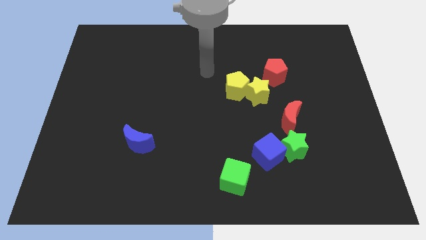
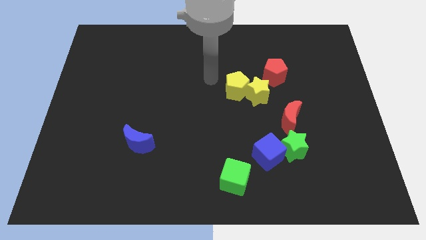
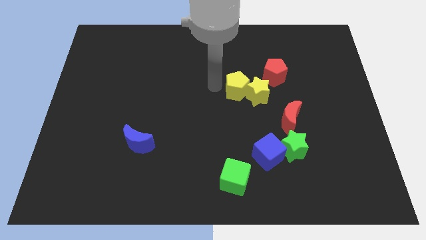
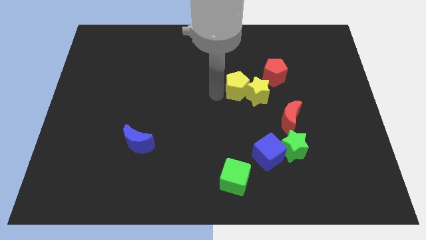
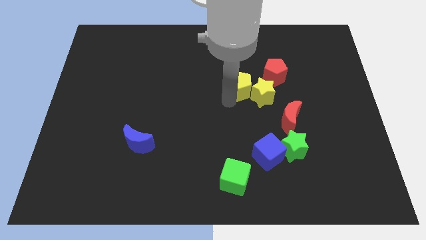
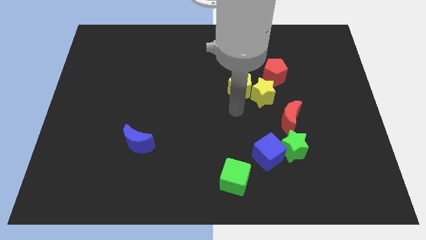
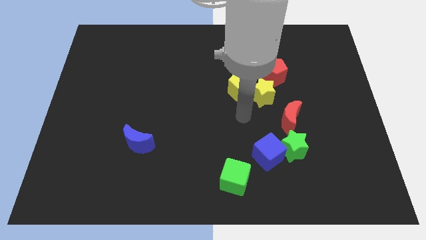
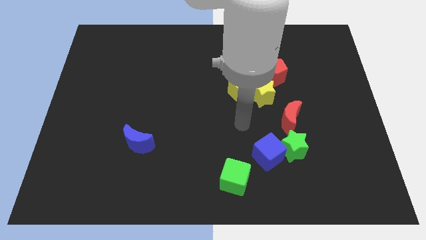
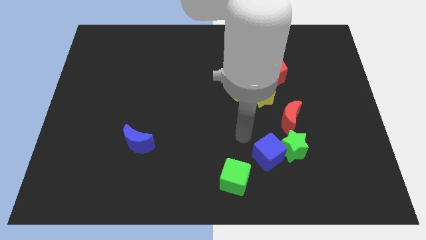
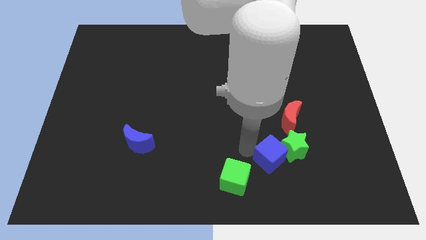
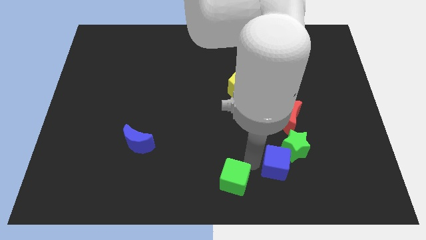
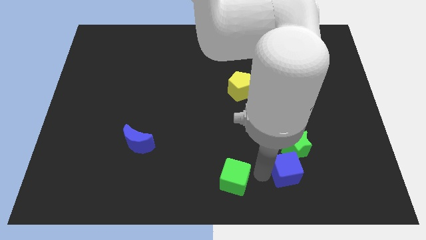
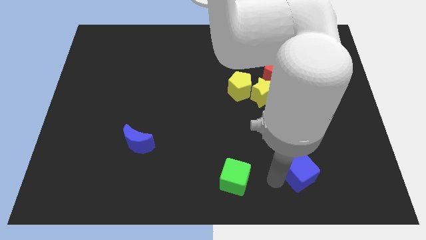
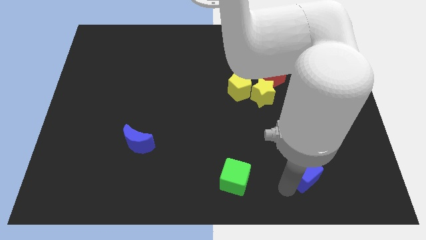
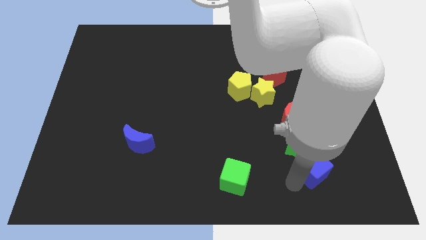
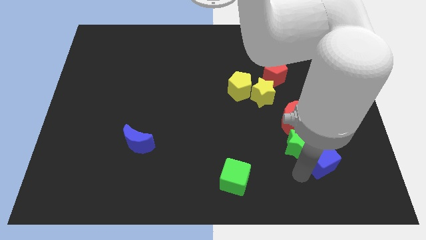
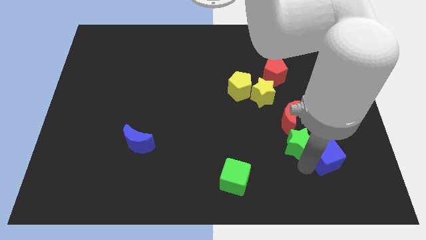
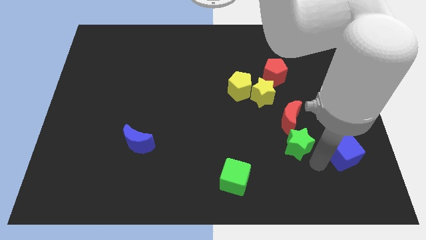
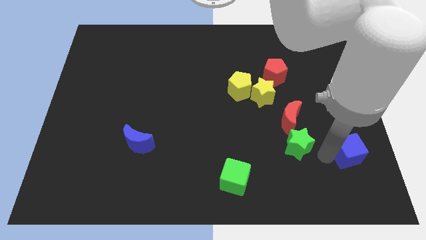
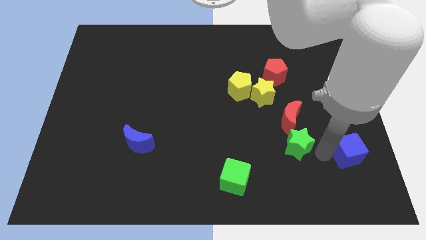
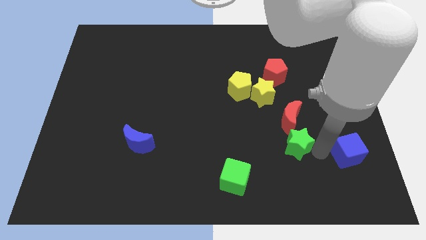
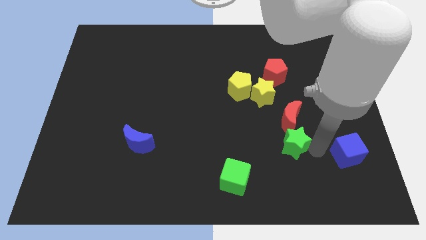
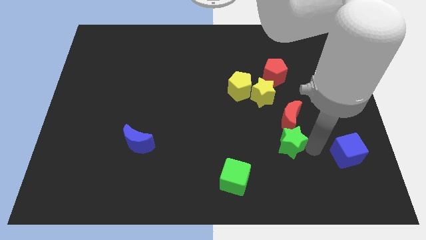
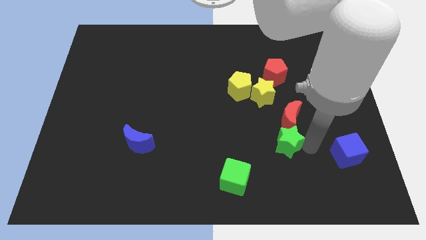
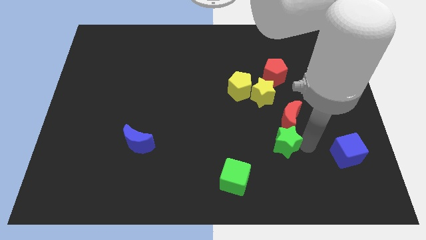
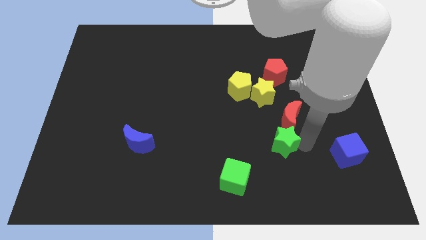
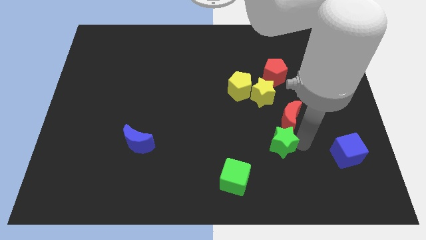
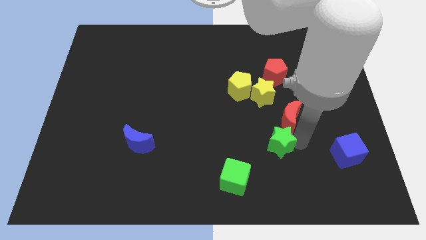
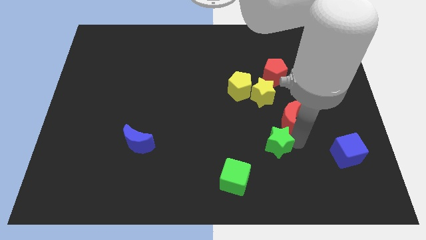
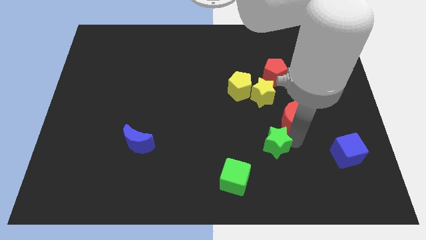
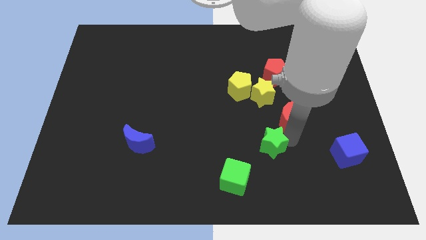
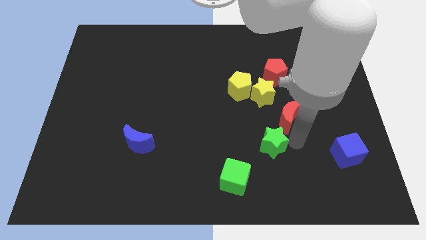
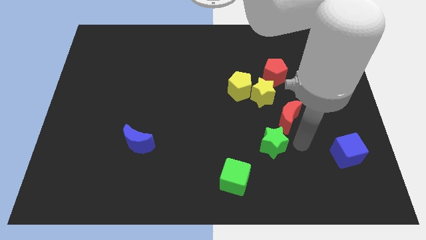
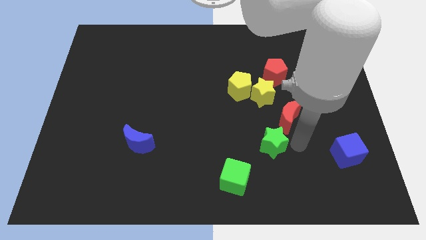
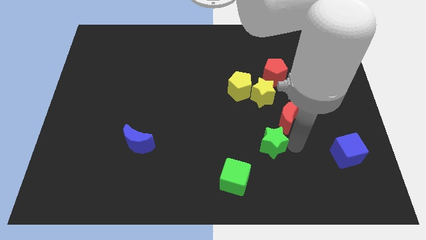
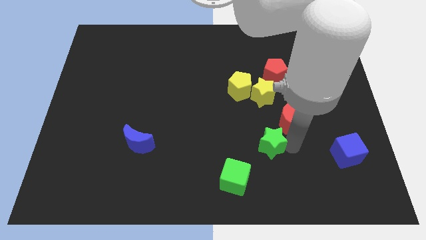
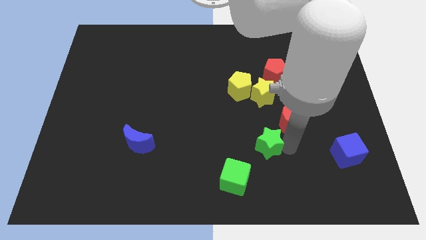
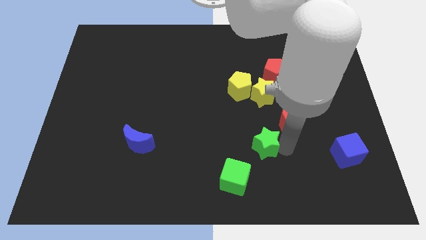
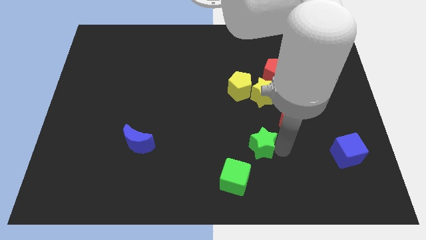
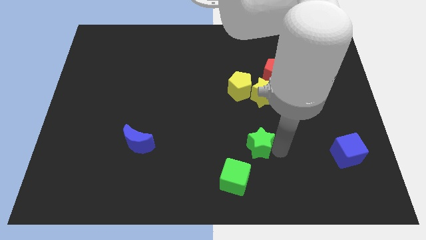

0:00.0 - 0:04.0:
slide the green star somewhat to the left

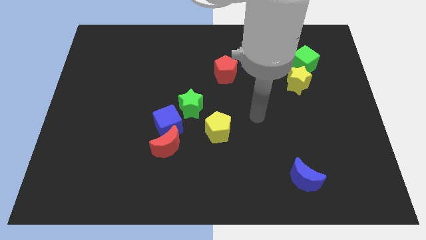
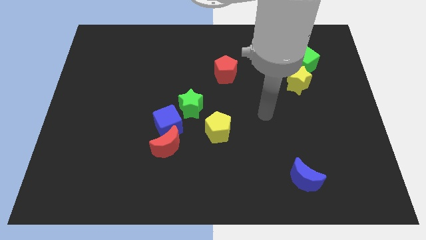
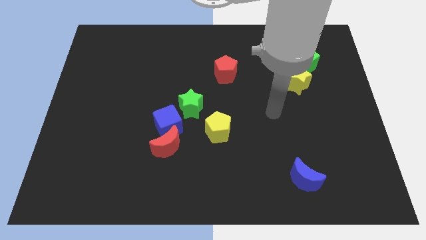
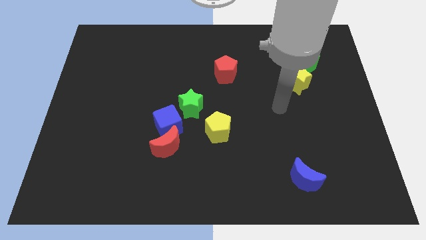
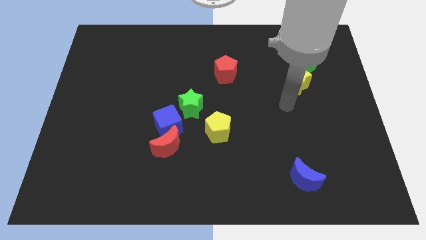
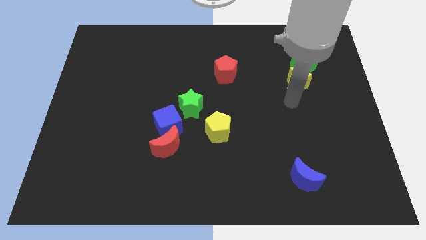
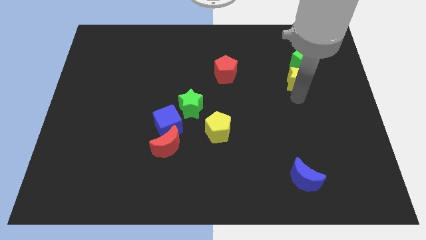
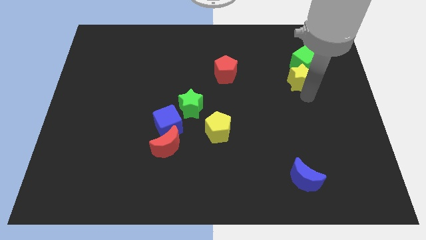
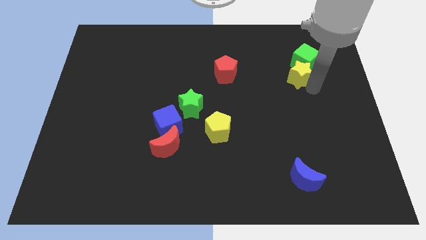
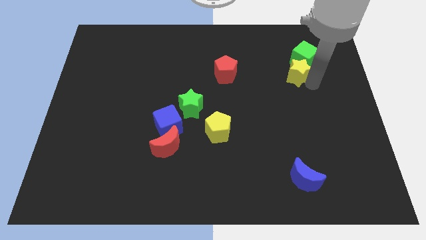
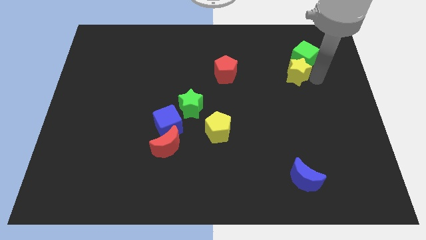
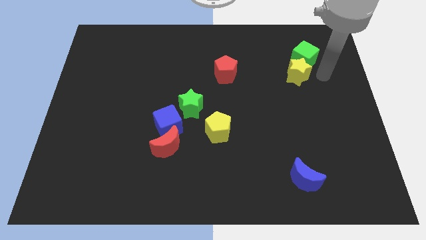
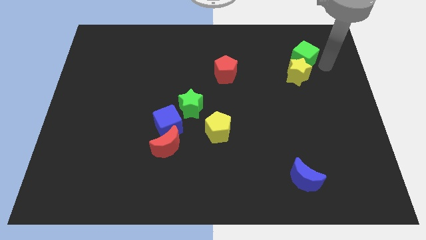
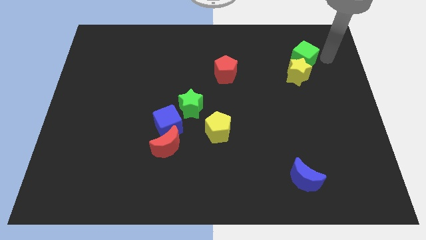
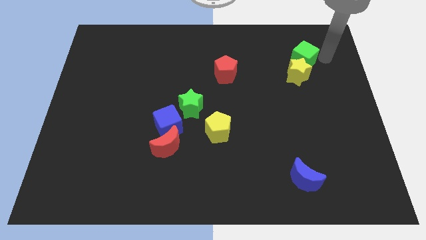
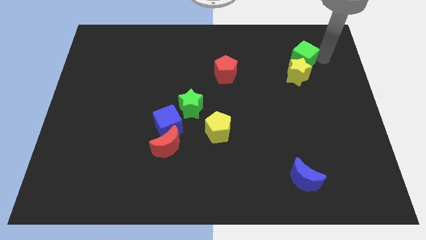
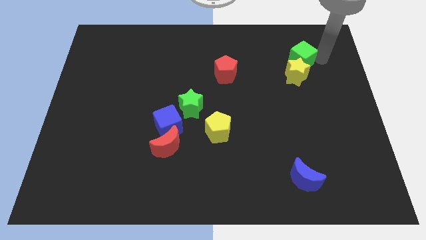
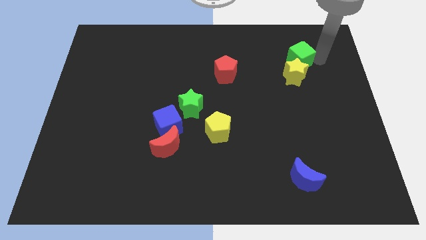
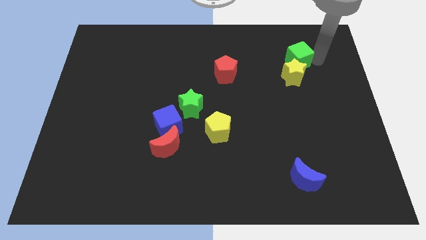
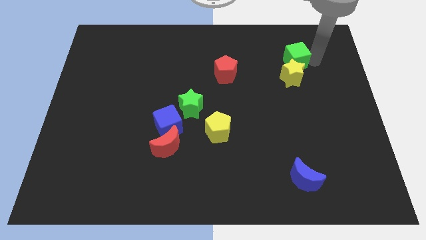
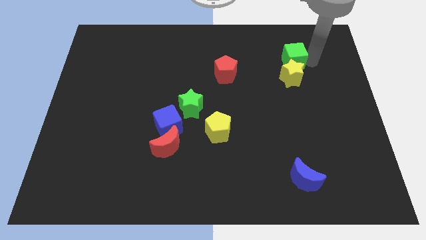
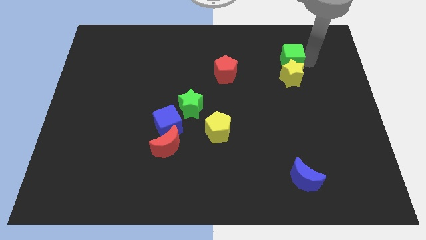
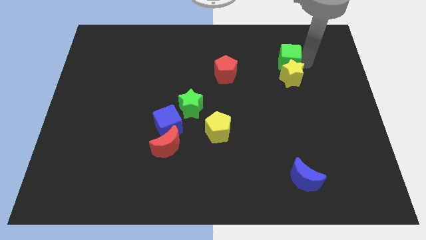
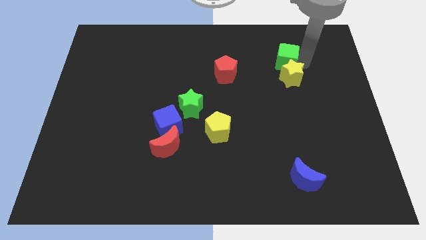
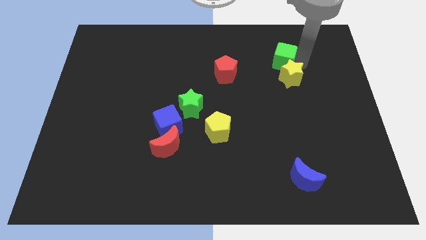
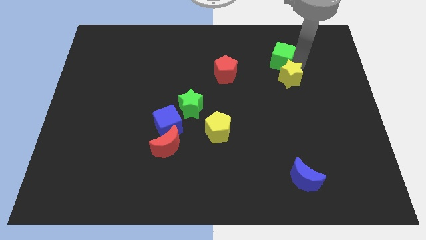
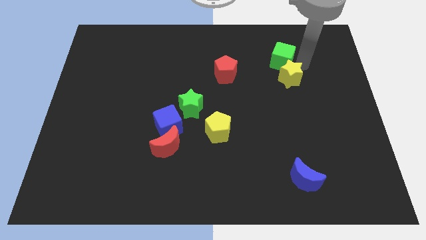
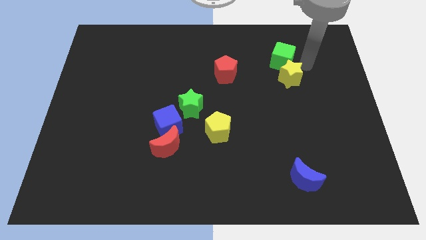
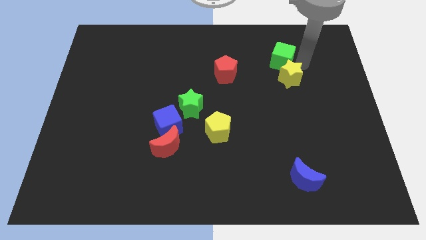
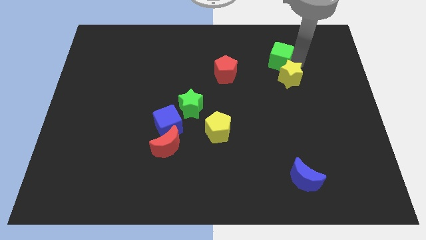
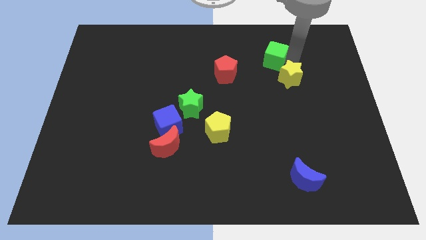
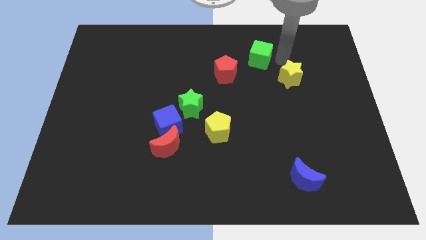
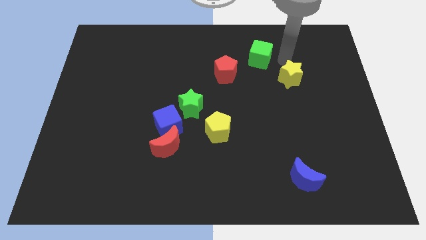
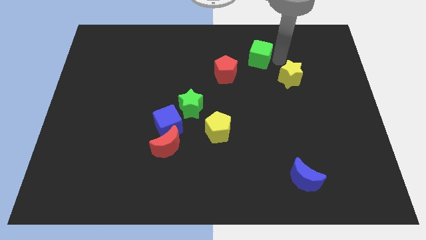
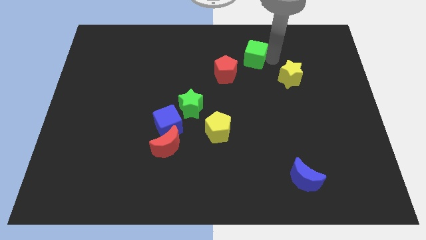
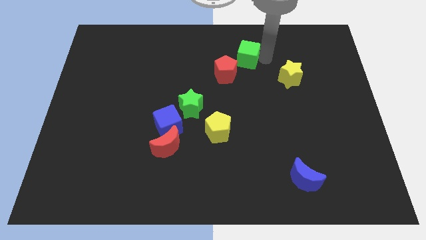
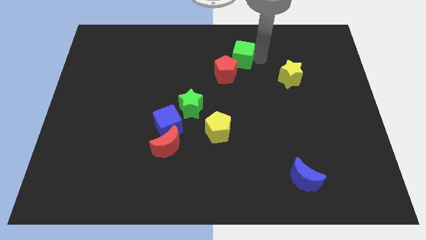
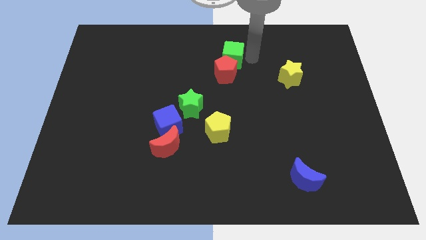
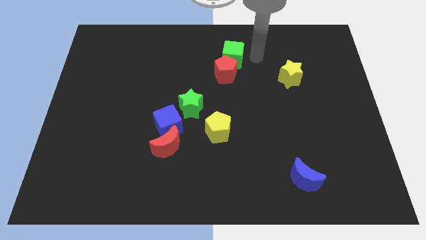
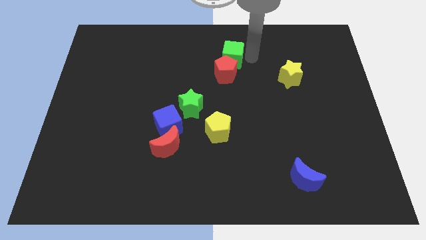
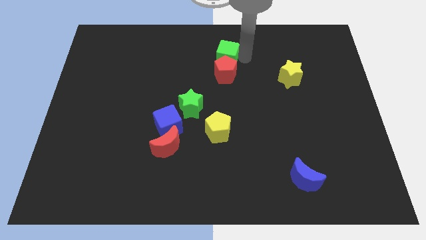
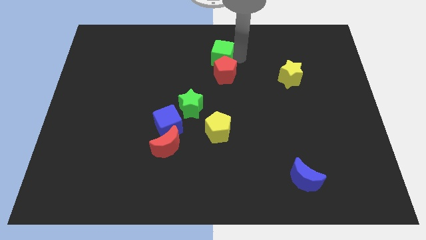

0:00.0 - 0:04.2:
move the green cube left

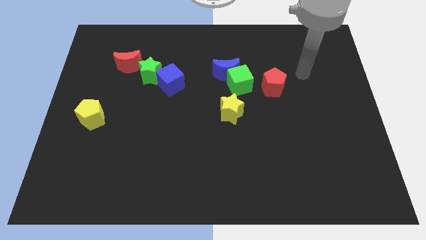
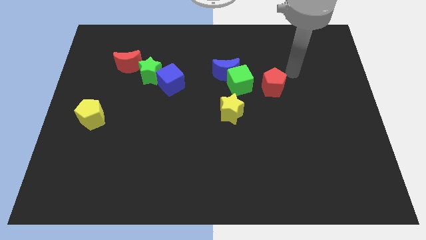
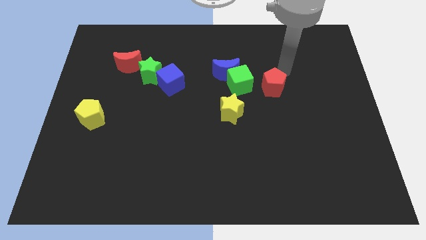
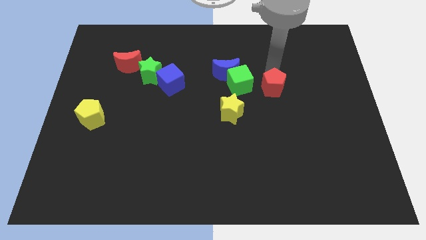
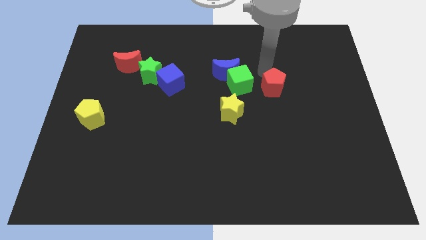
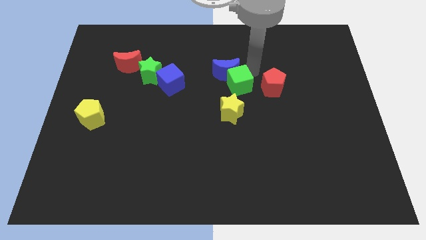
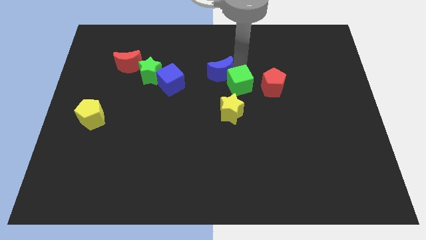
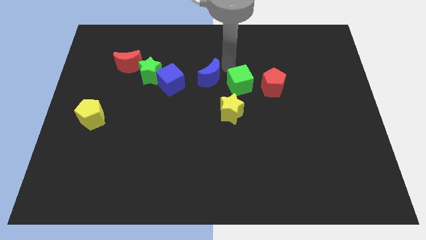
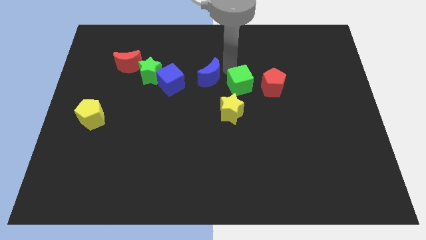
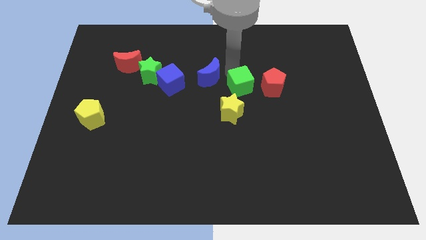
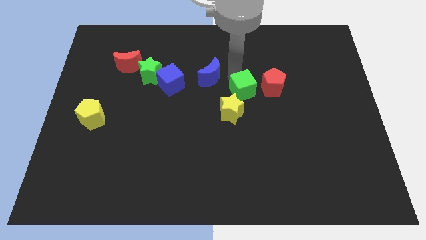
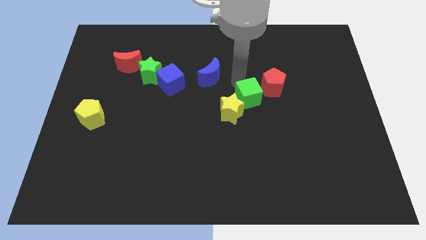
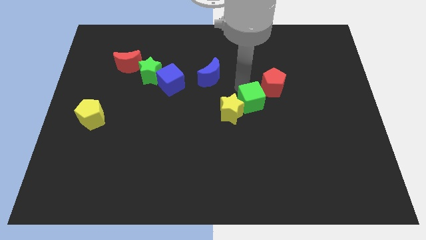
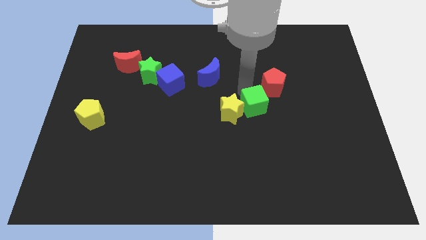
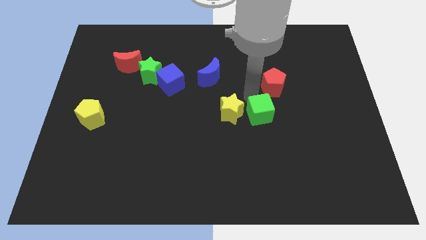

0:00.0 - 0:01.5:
move the green cube slightly downwards
